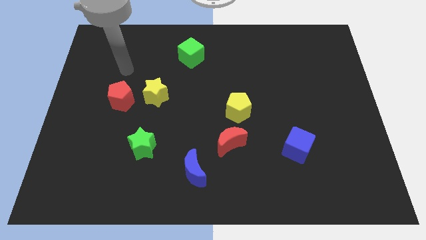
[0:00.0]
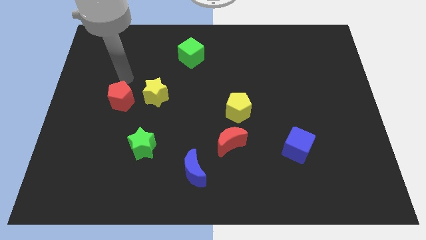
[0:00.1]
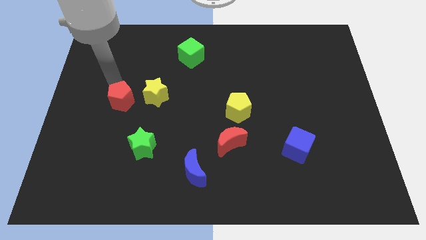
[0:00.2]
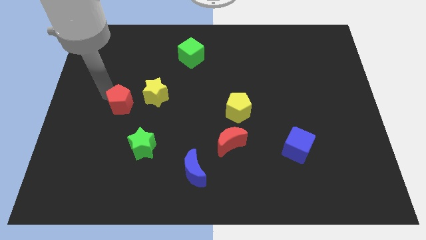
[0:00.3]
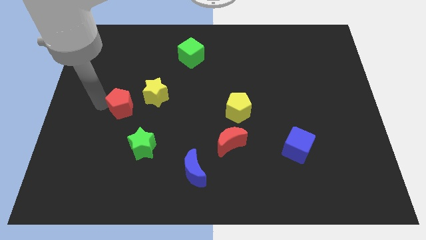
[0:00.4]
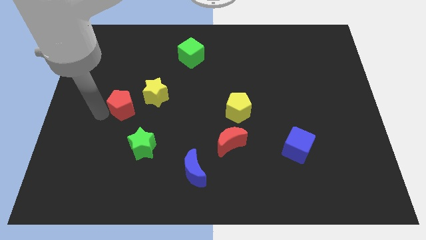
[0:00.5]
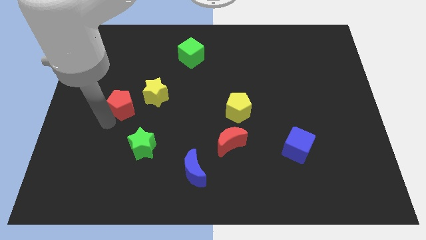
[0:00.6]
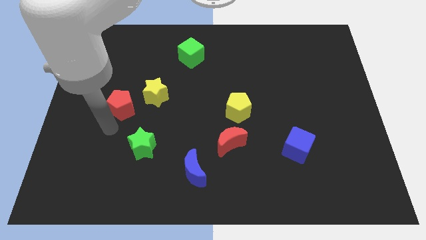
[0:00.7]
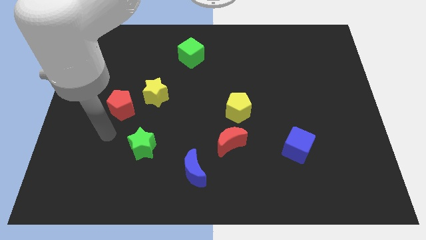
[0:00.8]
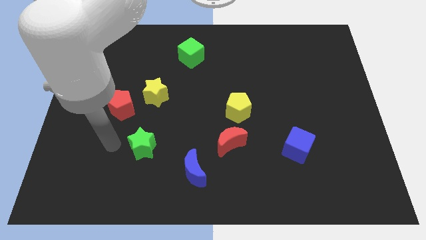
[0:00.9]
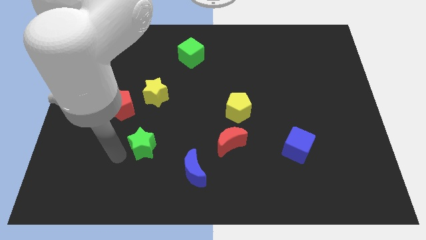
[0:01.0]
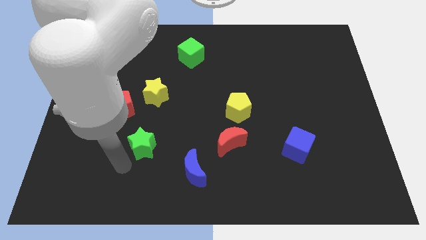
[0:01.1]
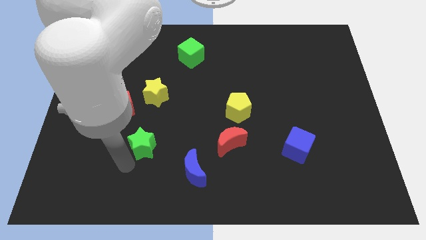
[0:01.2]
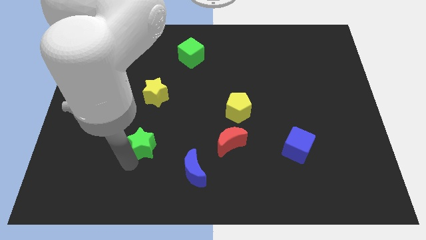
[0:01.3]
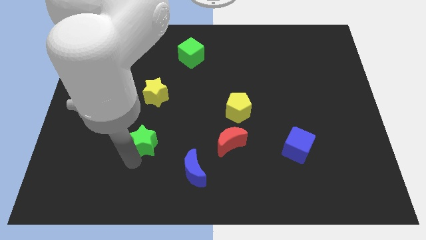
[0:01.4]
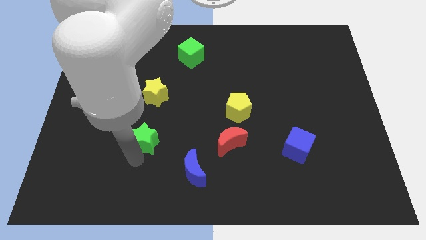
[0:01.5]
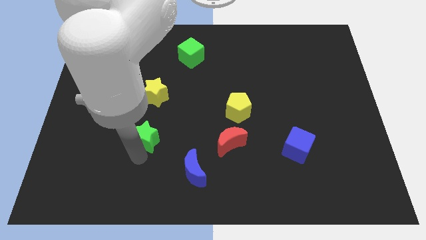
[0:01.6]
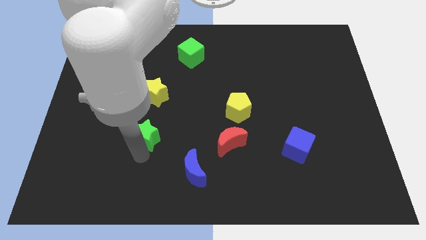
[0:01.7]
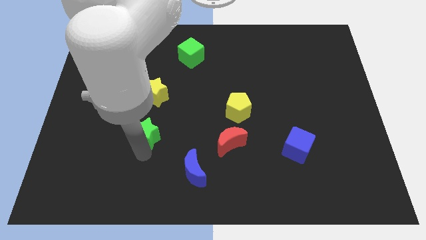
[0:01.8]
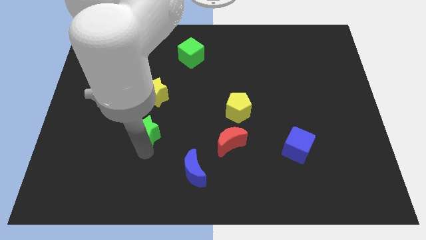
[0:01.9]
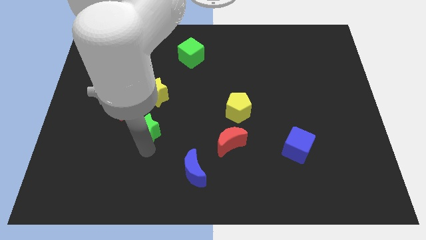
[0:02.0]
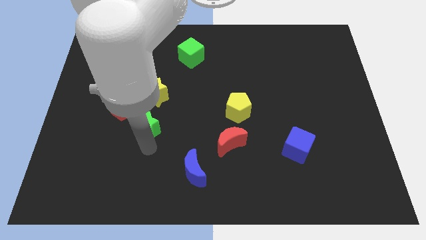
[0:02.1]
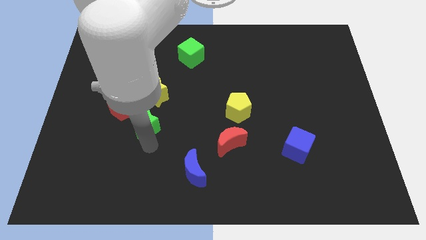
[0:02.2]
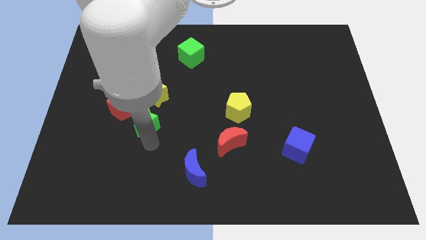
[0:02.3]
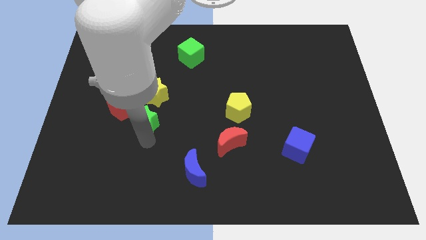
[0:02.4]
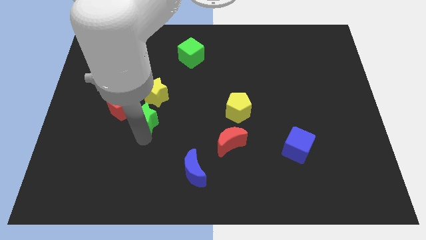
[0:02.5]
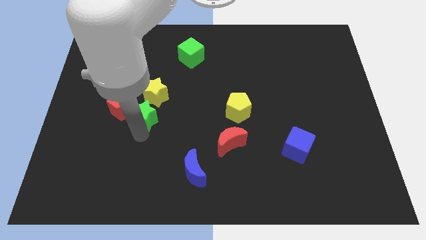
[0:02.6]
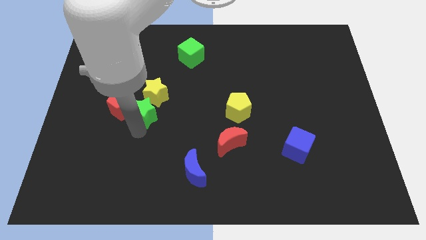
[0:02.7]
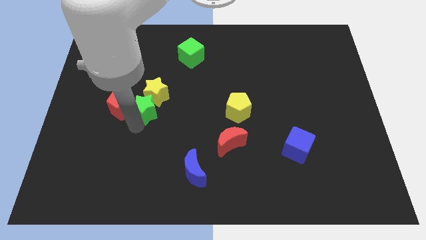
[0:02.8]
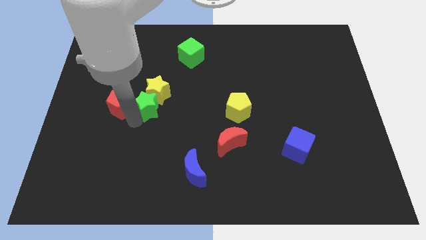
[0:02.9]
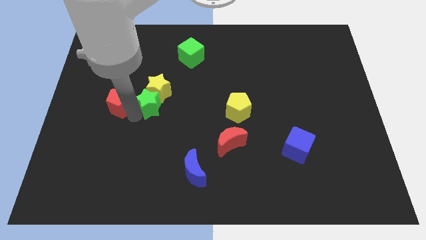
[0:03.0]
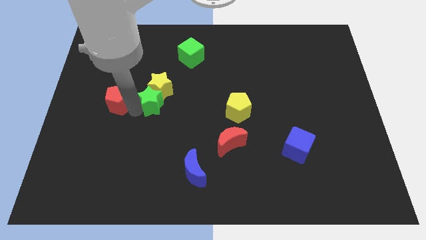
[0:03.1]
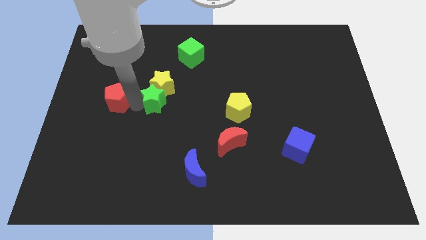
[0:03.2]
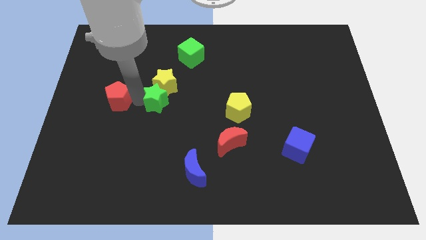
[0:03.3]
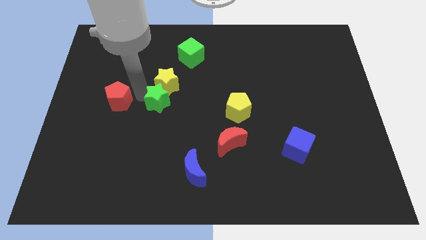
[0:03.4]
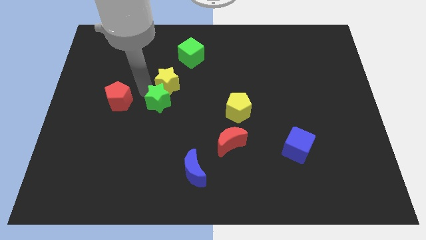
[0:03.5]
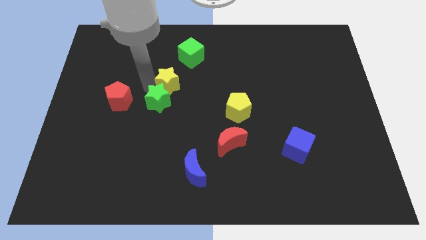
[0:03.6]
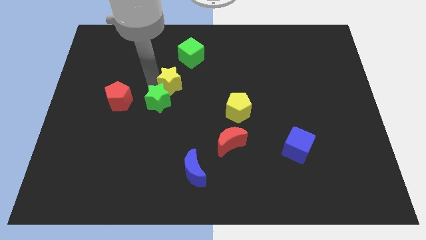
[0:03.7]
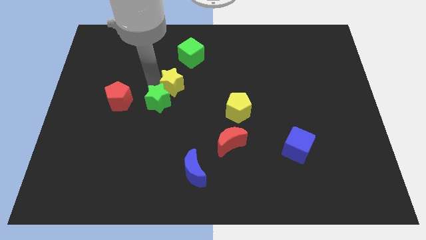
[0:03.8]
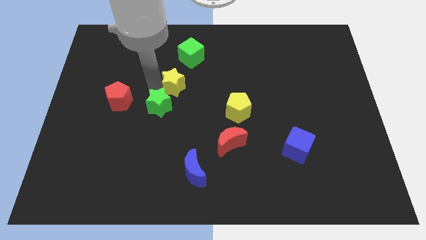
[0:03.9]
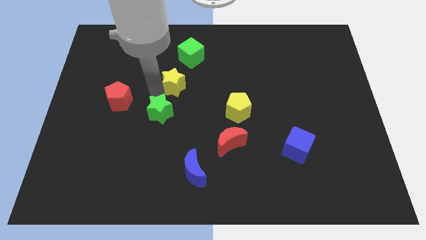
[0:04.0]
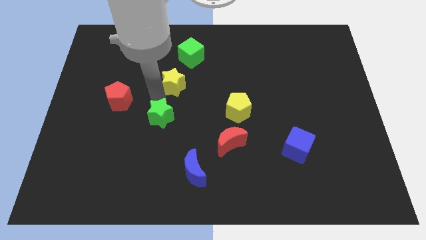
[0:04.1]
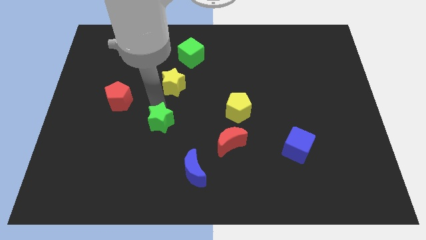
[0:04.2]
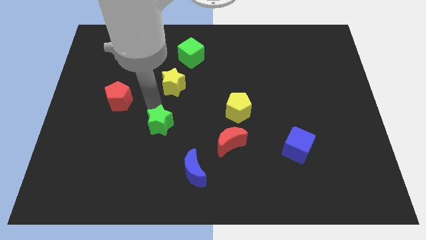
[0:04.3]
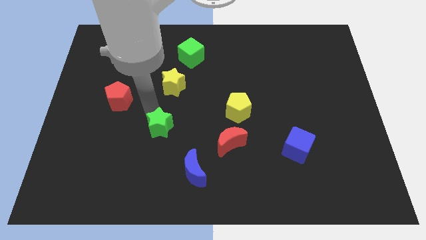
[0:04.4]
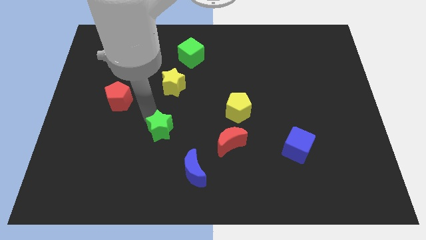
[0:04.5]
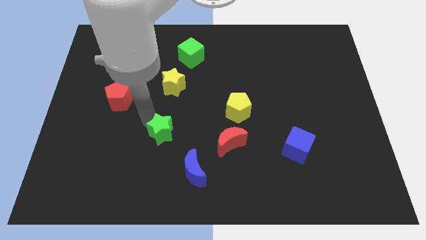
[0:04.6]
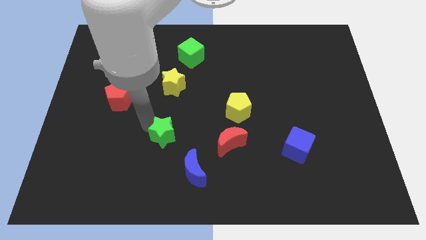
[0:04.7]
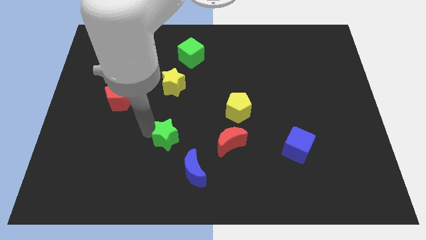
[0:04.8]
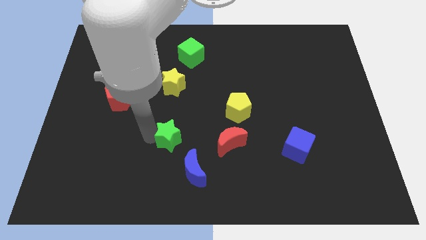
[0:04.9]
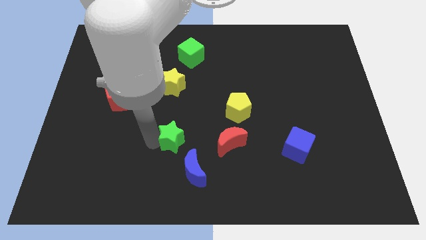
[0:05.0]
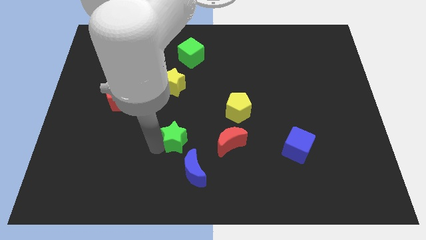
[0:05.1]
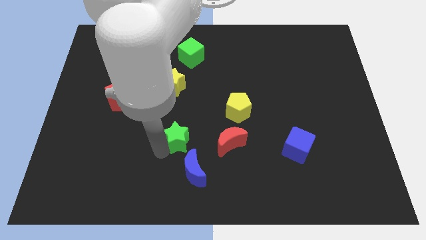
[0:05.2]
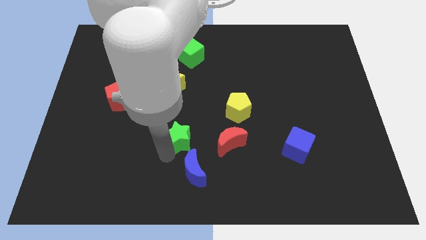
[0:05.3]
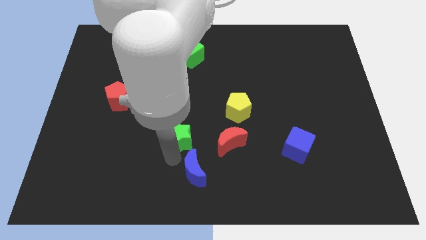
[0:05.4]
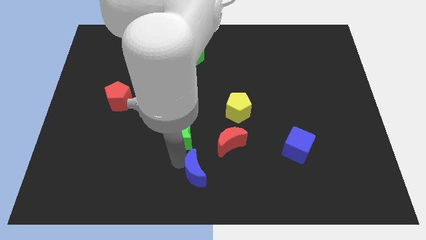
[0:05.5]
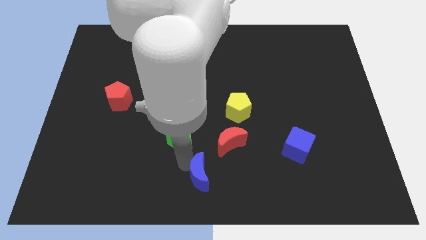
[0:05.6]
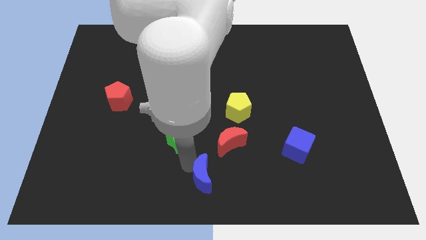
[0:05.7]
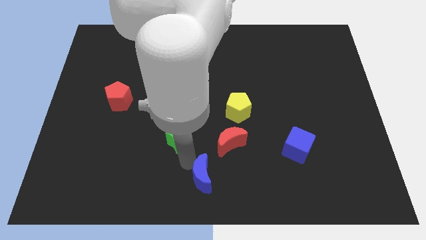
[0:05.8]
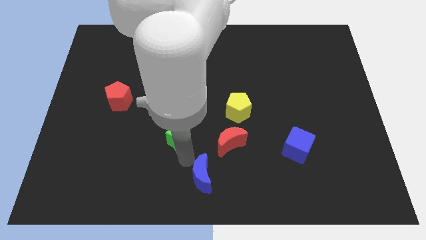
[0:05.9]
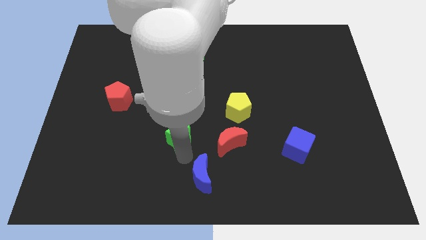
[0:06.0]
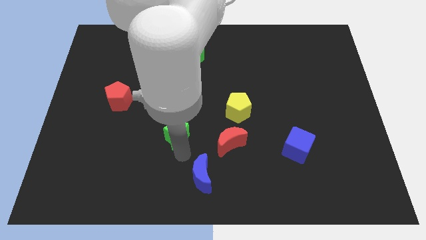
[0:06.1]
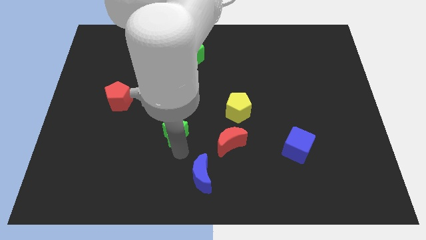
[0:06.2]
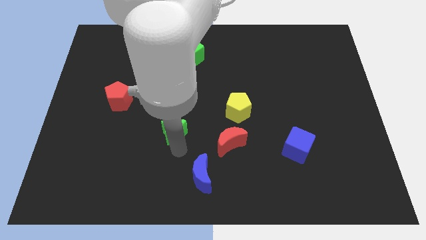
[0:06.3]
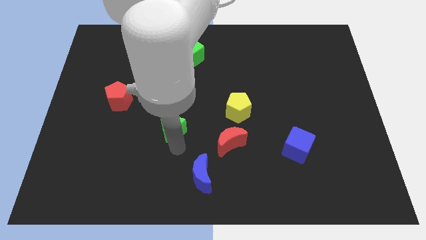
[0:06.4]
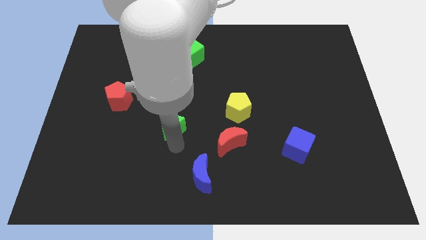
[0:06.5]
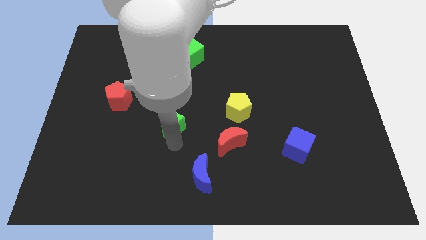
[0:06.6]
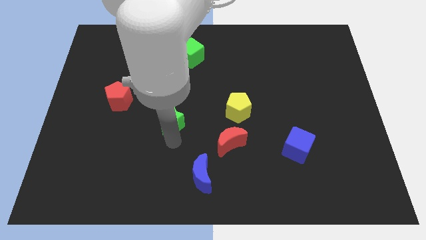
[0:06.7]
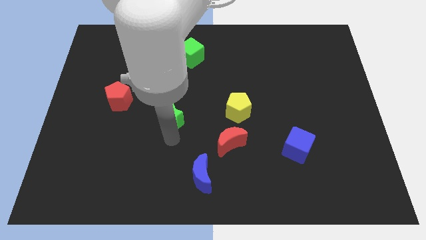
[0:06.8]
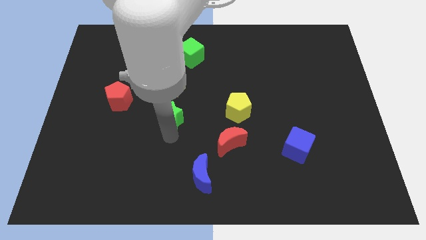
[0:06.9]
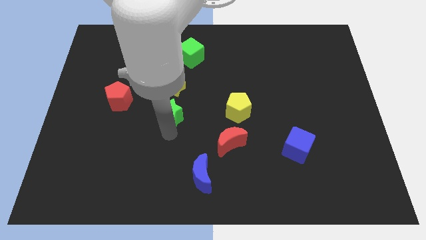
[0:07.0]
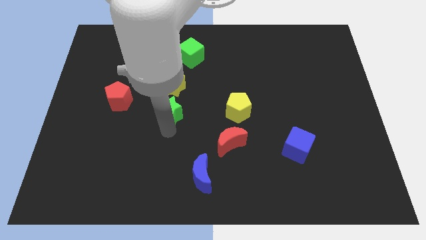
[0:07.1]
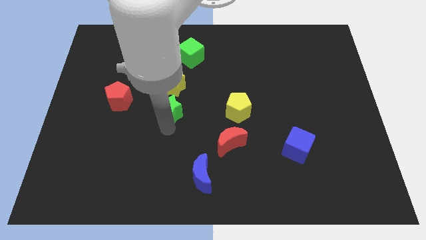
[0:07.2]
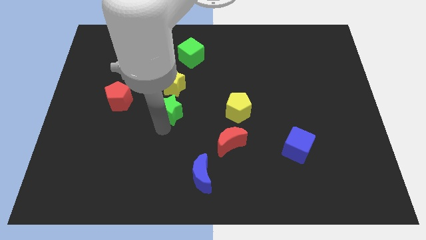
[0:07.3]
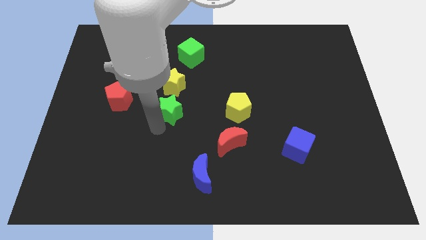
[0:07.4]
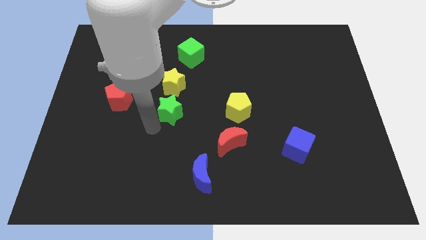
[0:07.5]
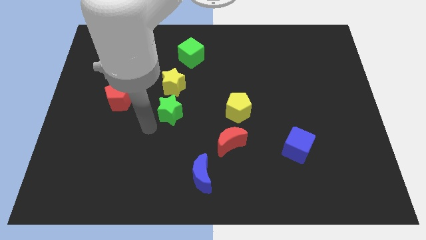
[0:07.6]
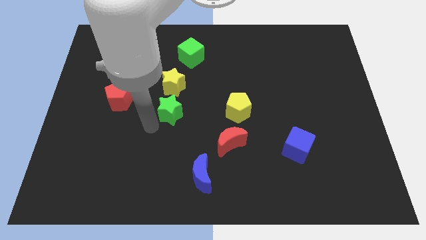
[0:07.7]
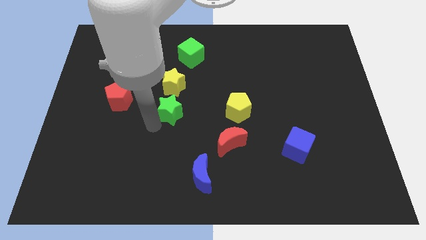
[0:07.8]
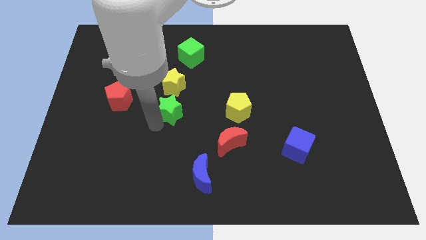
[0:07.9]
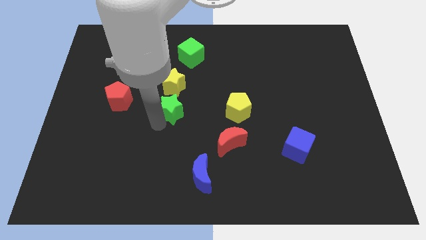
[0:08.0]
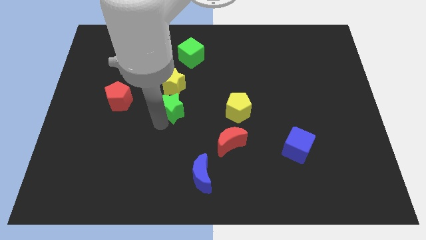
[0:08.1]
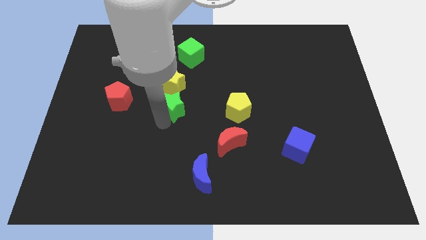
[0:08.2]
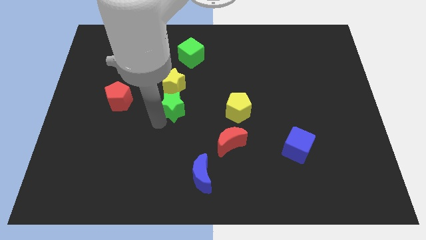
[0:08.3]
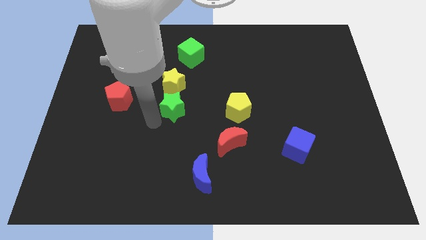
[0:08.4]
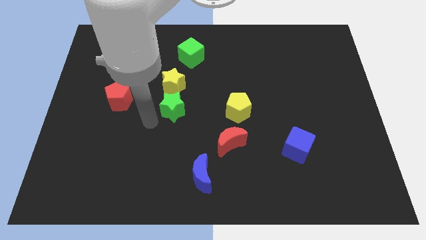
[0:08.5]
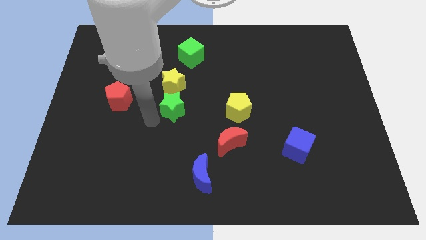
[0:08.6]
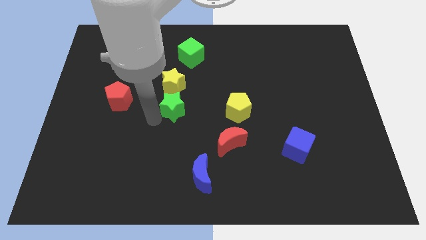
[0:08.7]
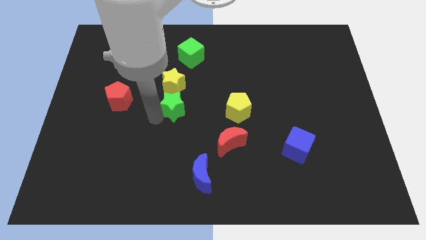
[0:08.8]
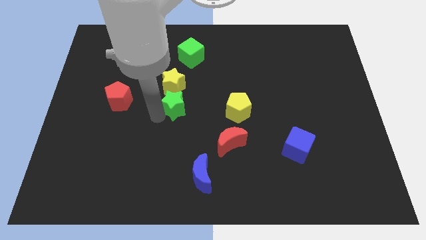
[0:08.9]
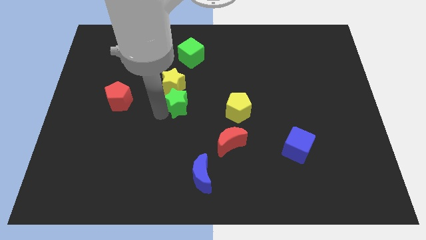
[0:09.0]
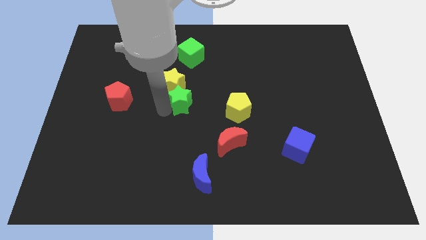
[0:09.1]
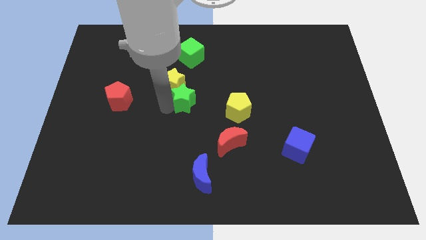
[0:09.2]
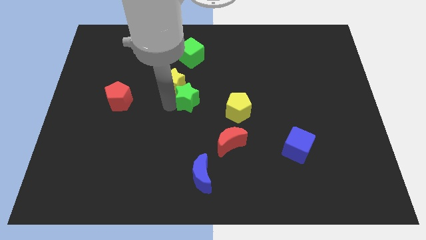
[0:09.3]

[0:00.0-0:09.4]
push the green star just right of the yellow star
